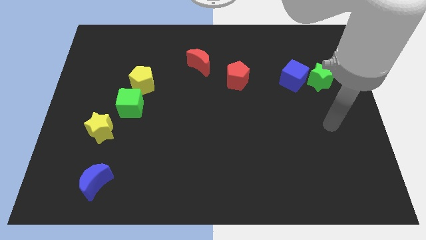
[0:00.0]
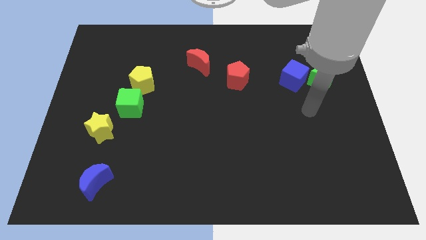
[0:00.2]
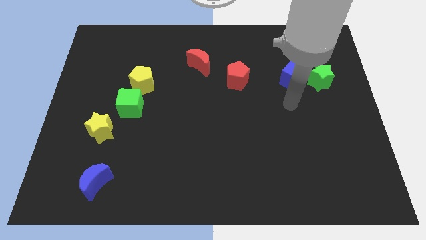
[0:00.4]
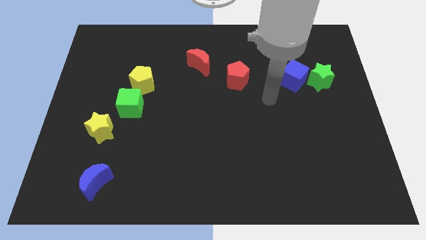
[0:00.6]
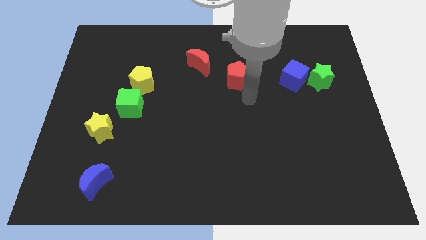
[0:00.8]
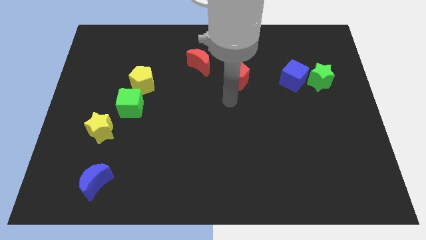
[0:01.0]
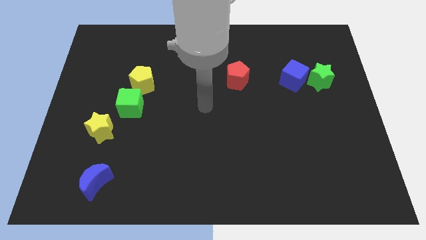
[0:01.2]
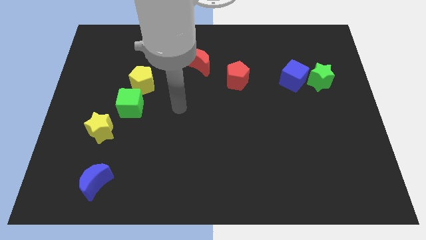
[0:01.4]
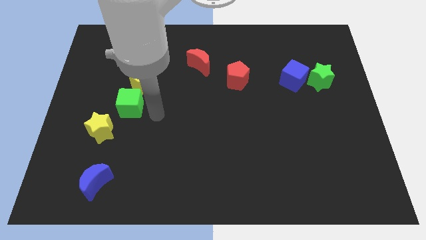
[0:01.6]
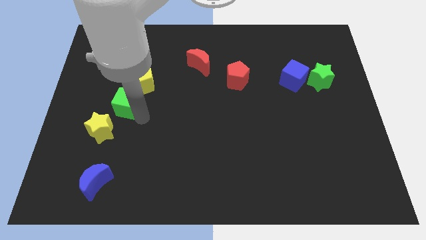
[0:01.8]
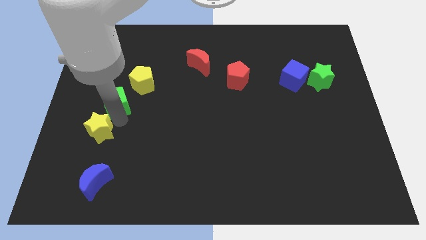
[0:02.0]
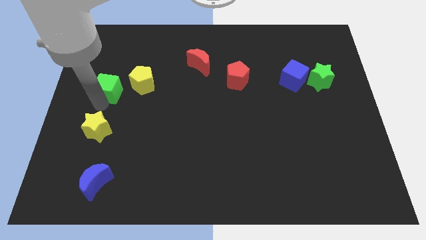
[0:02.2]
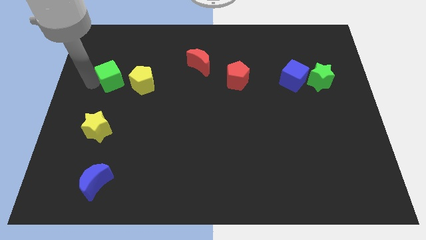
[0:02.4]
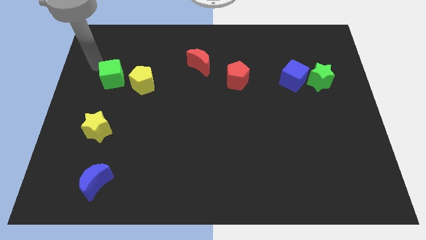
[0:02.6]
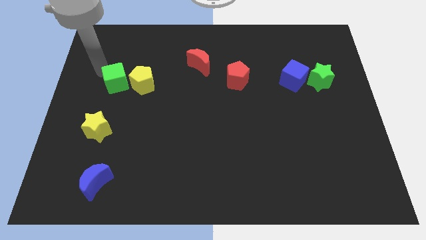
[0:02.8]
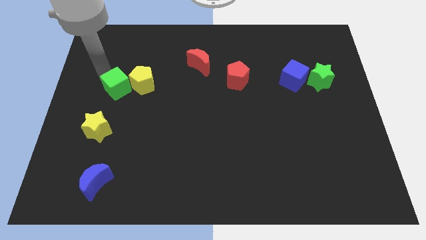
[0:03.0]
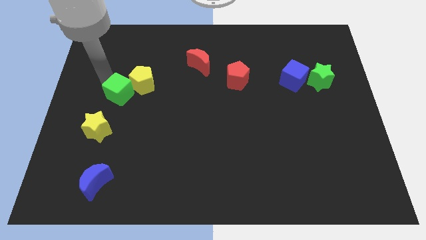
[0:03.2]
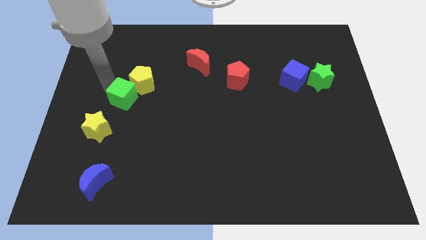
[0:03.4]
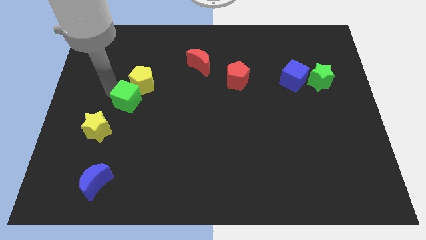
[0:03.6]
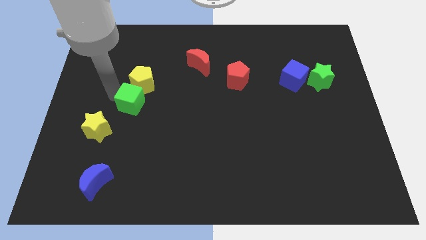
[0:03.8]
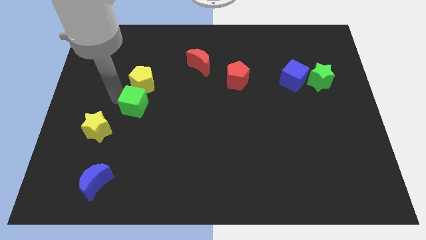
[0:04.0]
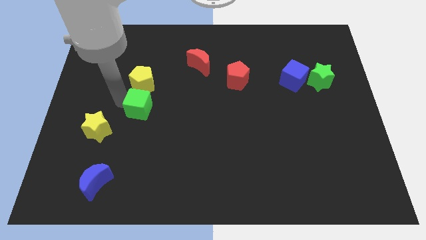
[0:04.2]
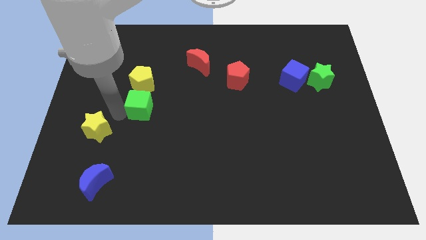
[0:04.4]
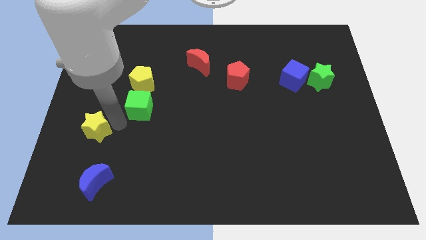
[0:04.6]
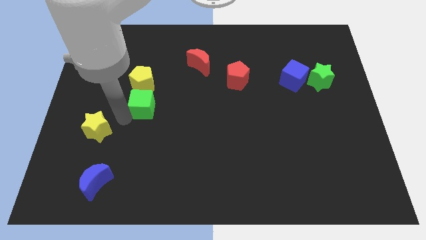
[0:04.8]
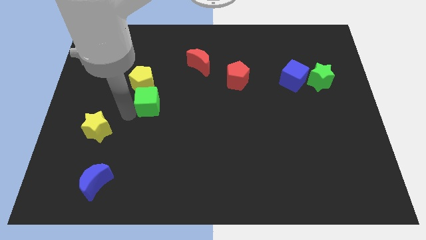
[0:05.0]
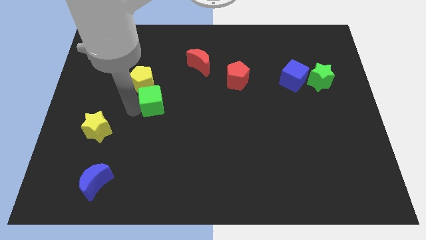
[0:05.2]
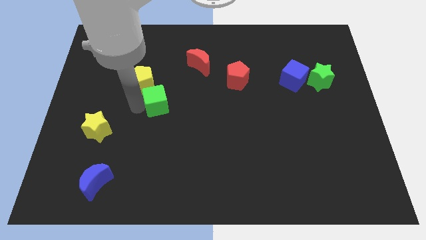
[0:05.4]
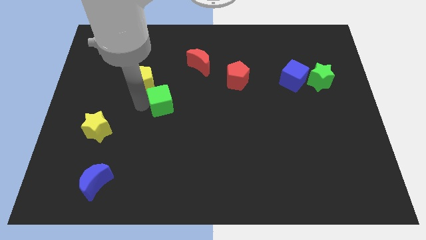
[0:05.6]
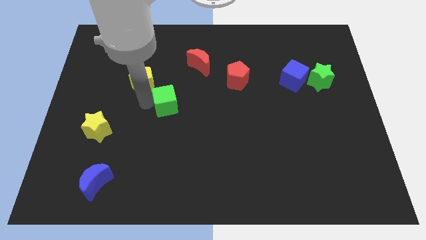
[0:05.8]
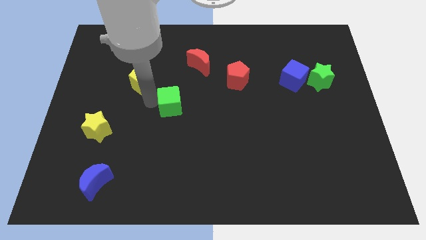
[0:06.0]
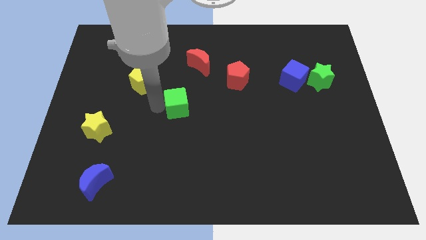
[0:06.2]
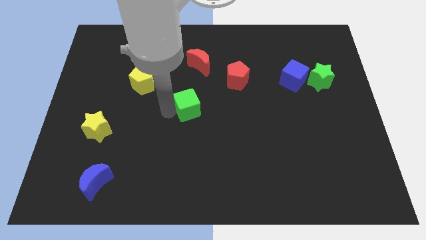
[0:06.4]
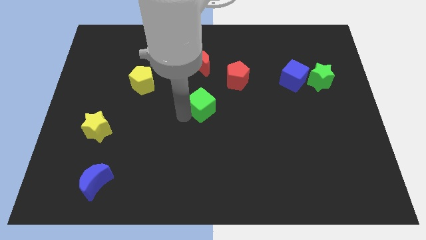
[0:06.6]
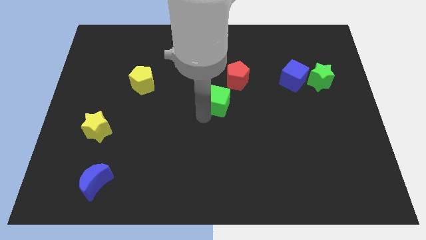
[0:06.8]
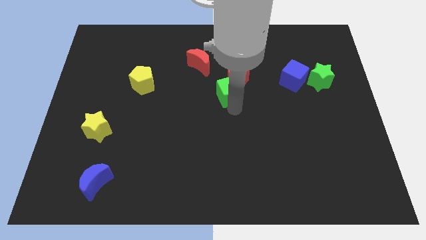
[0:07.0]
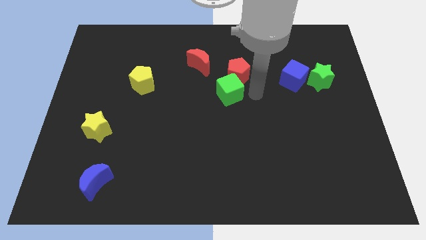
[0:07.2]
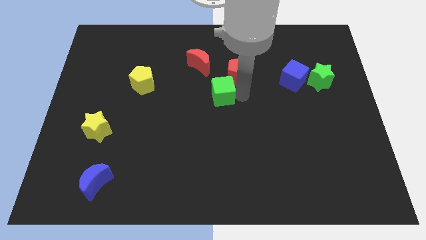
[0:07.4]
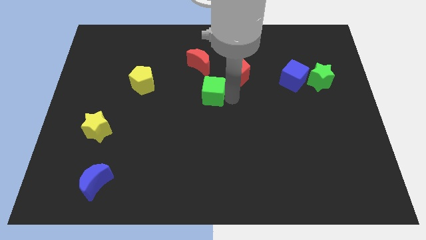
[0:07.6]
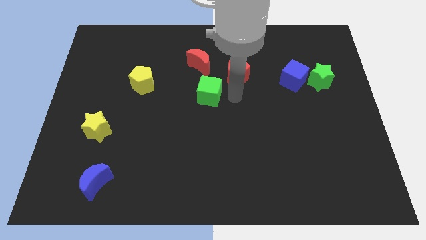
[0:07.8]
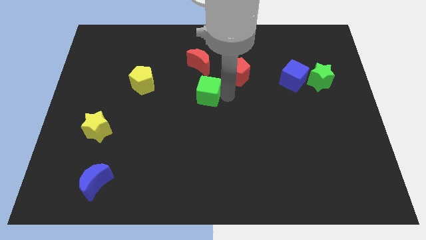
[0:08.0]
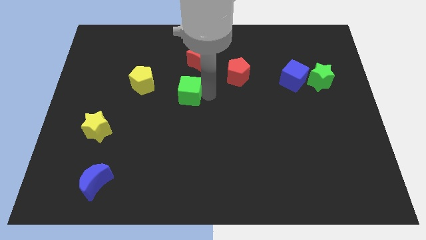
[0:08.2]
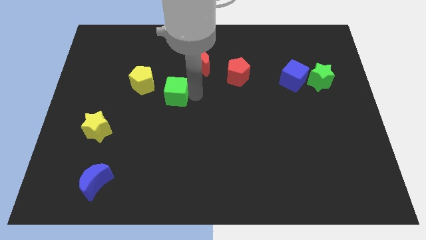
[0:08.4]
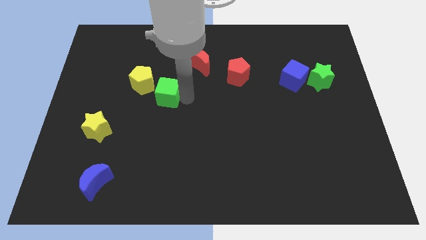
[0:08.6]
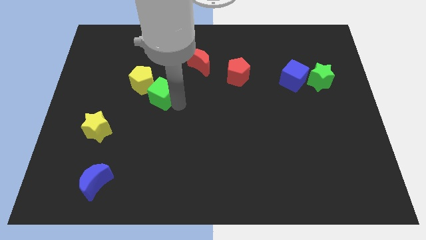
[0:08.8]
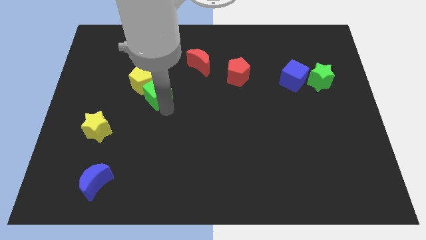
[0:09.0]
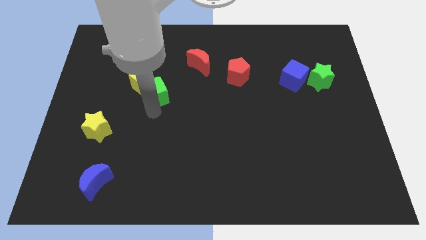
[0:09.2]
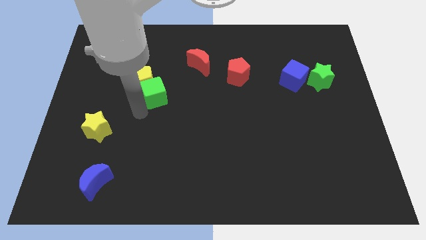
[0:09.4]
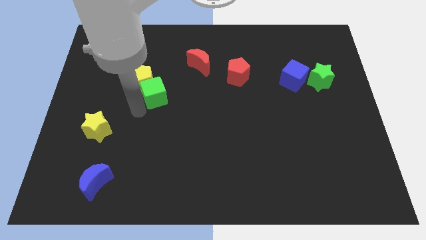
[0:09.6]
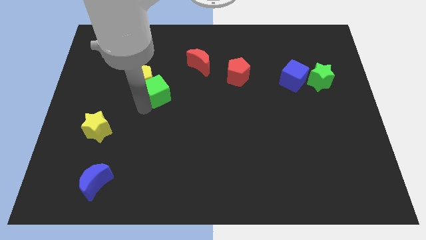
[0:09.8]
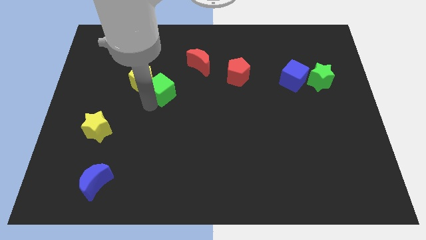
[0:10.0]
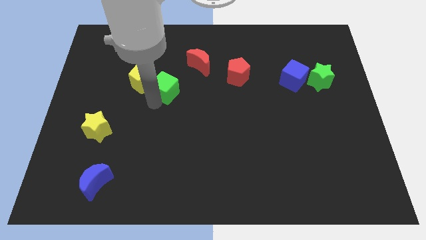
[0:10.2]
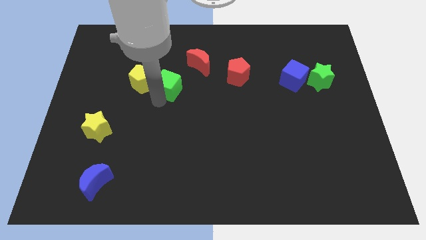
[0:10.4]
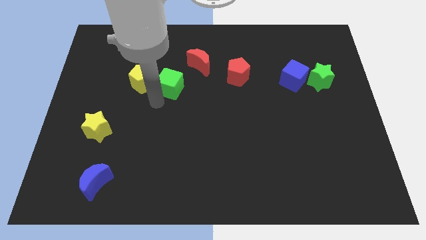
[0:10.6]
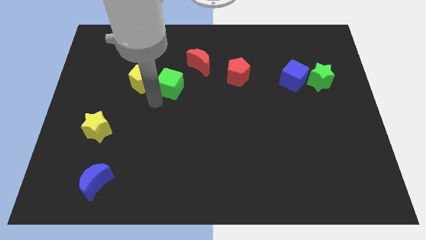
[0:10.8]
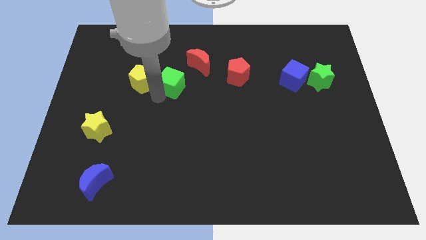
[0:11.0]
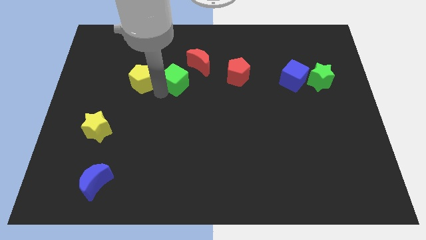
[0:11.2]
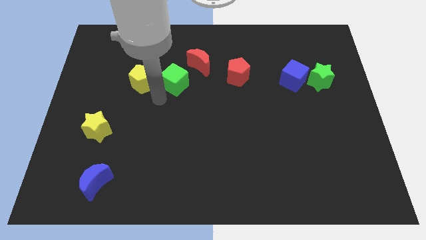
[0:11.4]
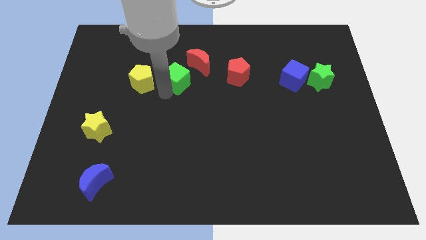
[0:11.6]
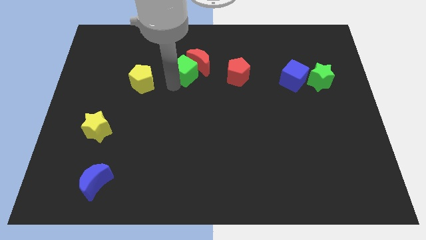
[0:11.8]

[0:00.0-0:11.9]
push the green cube close to the red moon

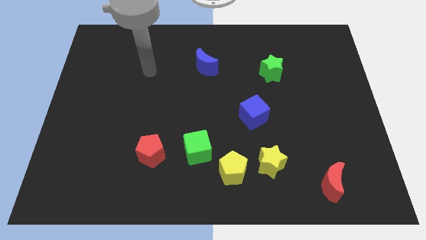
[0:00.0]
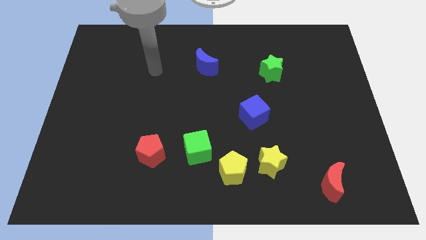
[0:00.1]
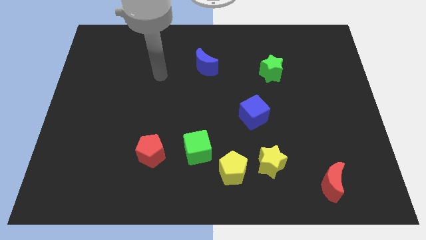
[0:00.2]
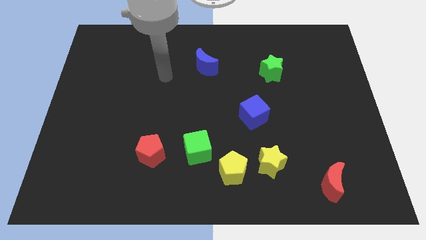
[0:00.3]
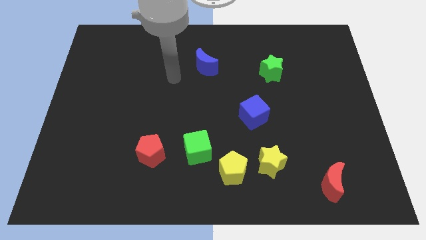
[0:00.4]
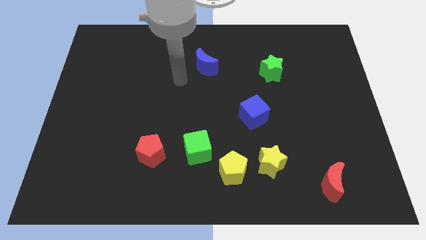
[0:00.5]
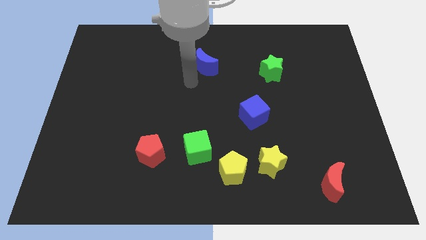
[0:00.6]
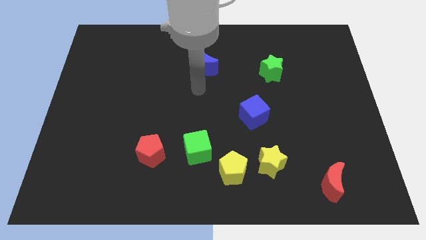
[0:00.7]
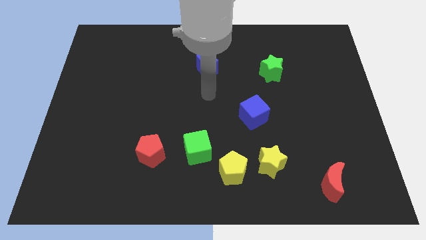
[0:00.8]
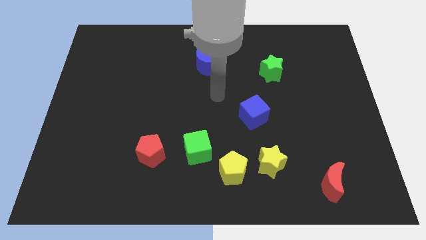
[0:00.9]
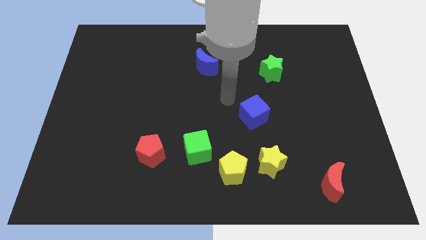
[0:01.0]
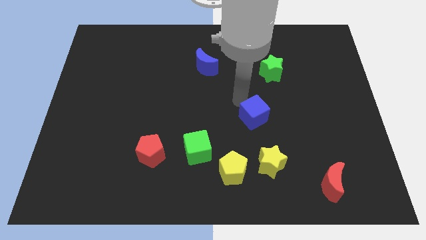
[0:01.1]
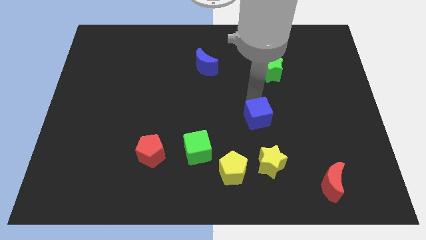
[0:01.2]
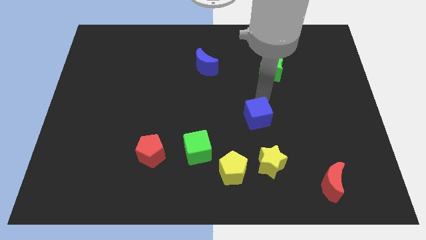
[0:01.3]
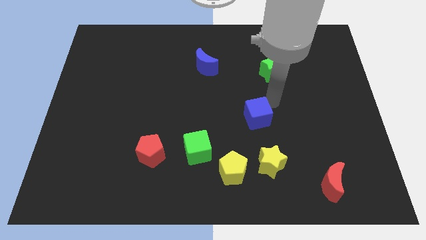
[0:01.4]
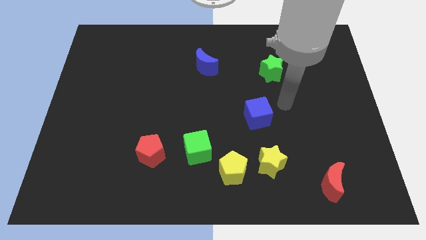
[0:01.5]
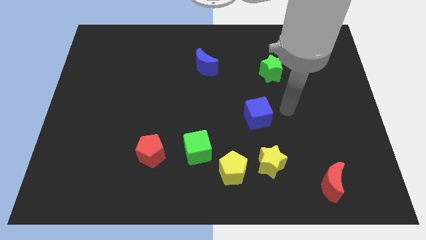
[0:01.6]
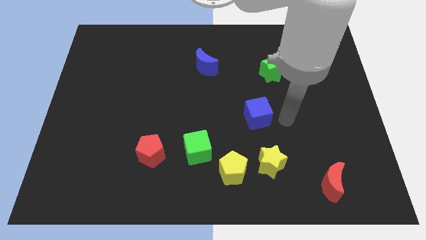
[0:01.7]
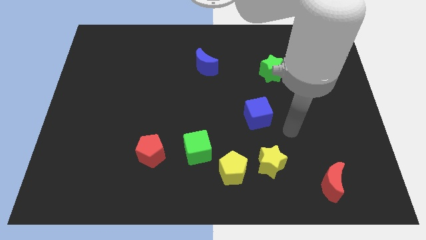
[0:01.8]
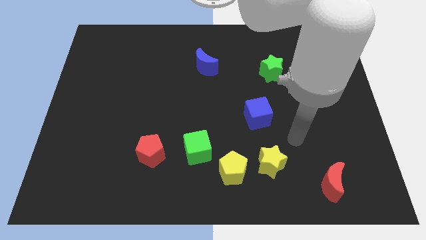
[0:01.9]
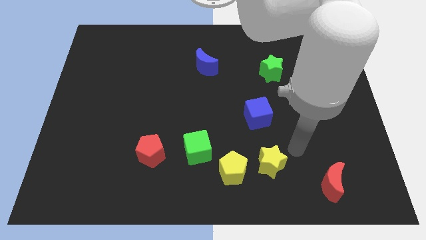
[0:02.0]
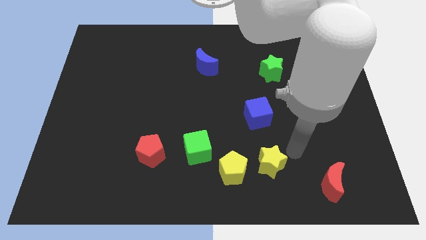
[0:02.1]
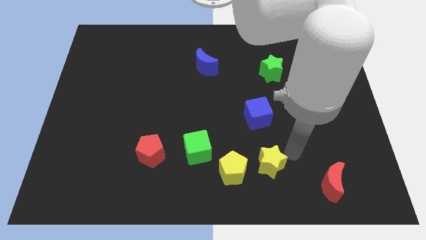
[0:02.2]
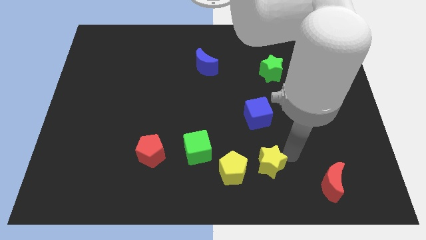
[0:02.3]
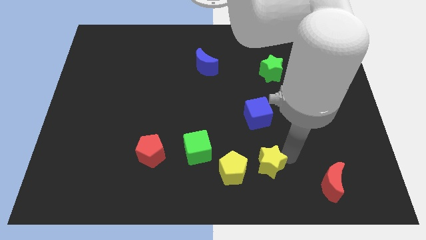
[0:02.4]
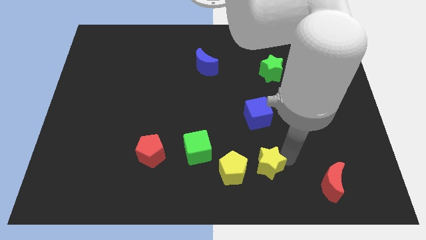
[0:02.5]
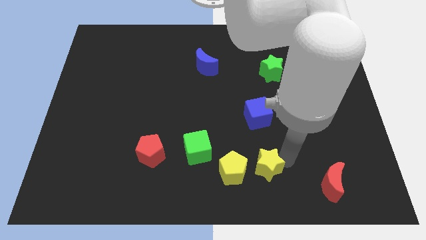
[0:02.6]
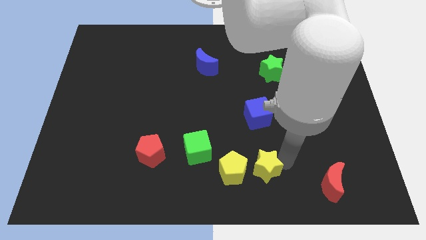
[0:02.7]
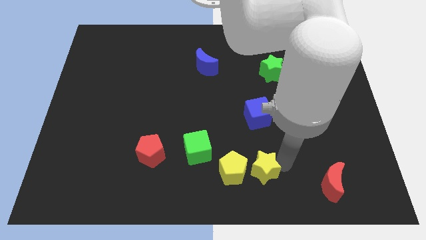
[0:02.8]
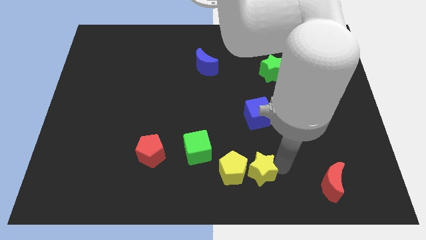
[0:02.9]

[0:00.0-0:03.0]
move the yellow star close to the yellow pentagon

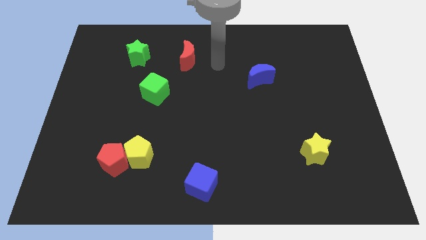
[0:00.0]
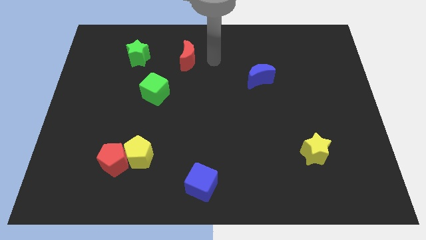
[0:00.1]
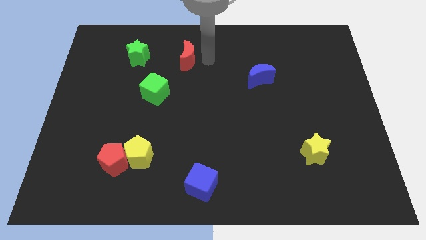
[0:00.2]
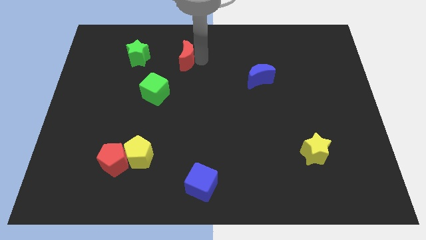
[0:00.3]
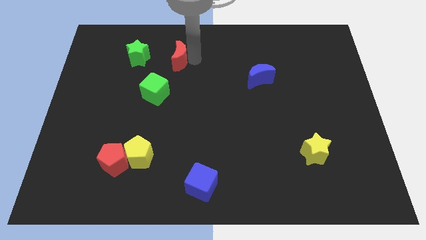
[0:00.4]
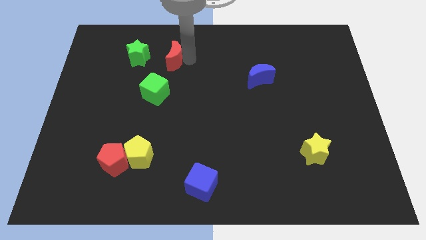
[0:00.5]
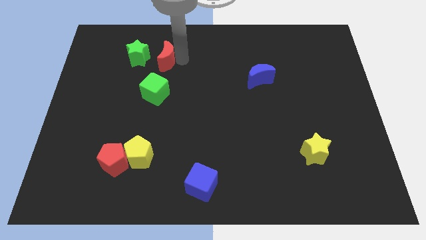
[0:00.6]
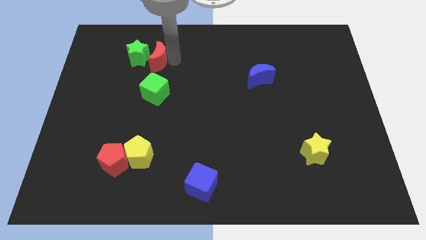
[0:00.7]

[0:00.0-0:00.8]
put the red moon to the green star
